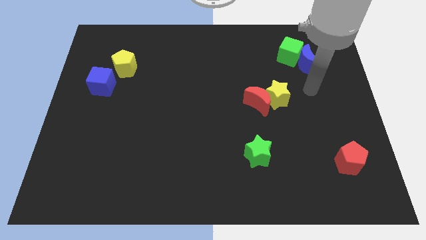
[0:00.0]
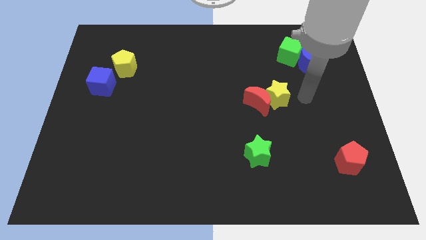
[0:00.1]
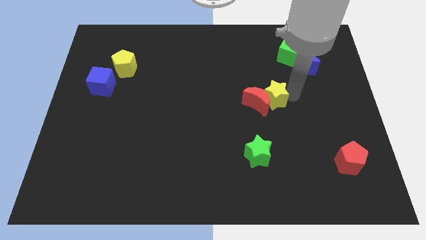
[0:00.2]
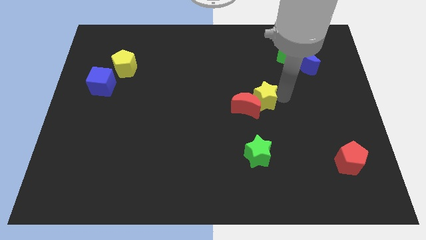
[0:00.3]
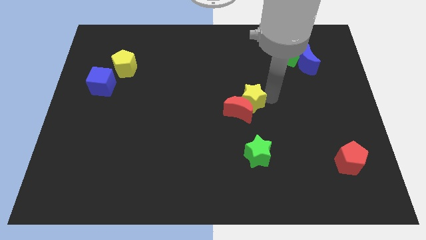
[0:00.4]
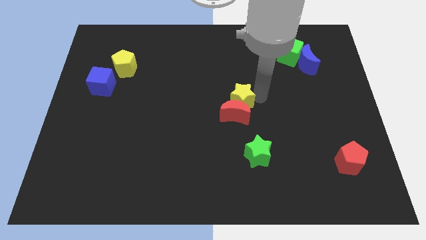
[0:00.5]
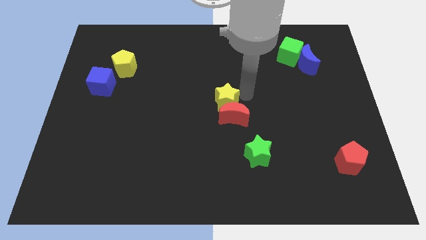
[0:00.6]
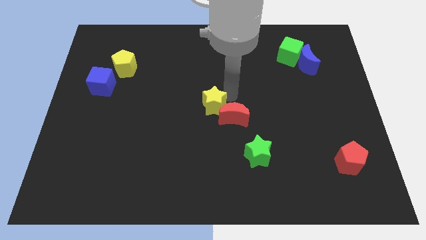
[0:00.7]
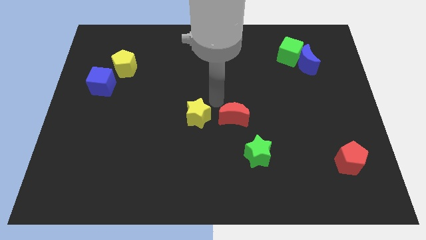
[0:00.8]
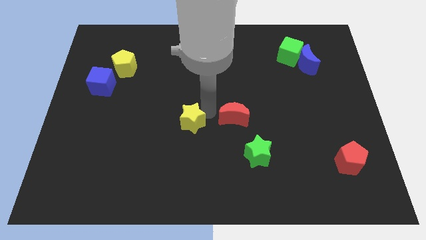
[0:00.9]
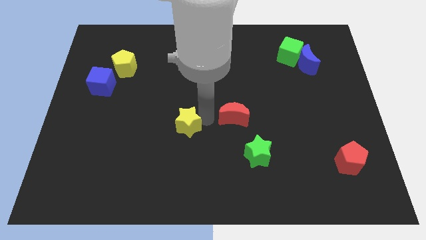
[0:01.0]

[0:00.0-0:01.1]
separate the red moon from the yellow star

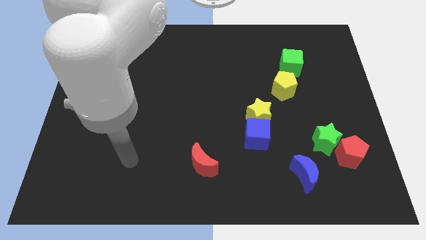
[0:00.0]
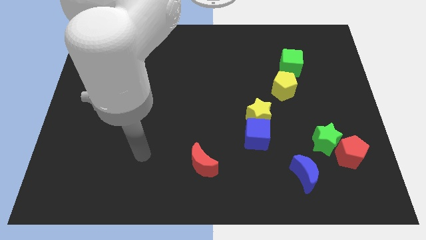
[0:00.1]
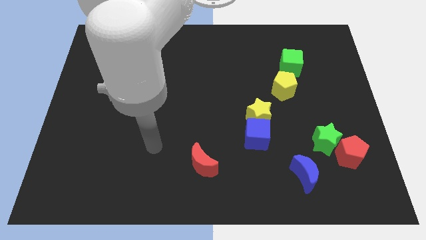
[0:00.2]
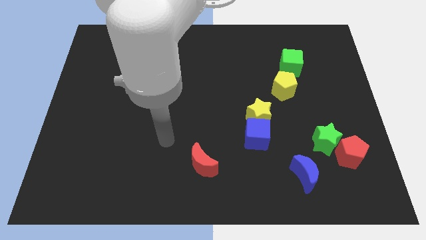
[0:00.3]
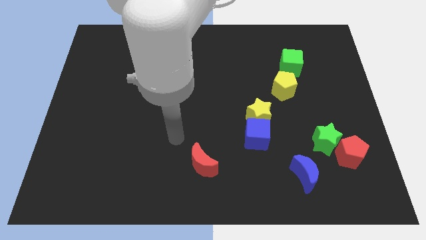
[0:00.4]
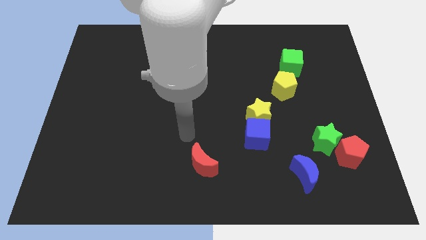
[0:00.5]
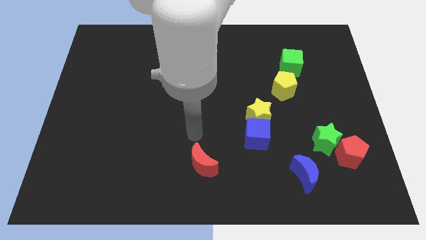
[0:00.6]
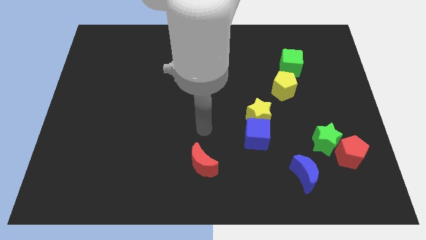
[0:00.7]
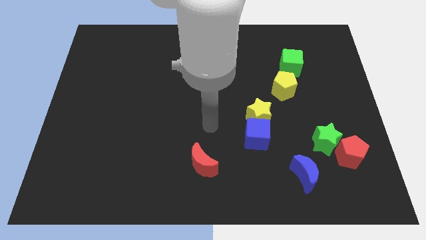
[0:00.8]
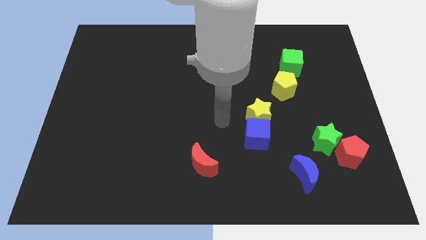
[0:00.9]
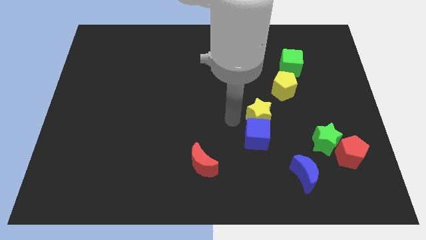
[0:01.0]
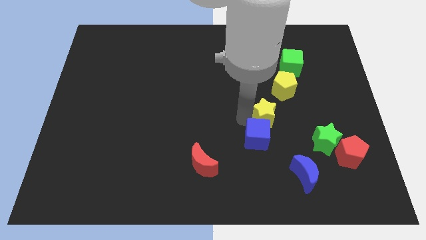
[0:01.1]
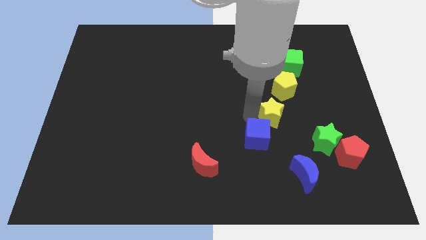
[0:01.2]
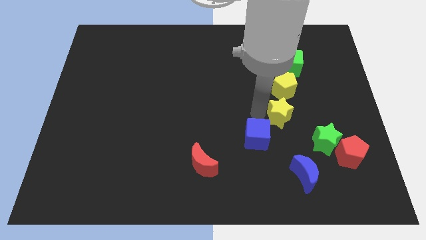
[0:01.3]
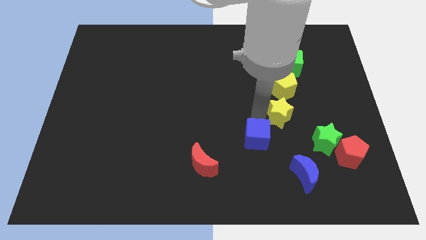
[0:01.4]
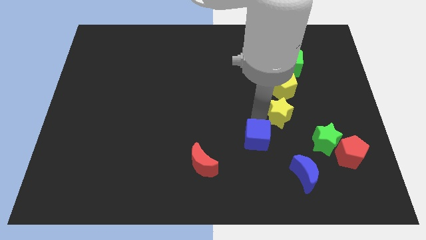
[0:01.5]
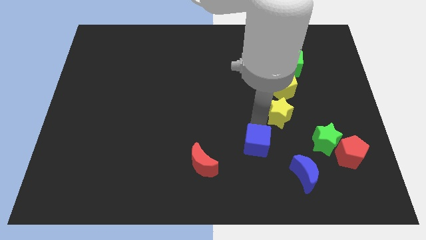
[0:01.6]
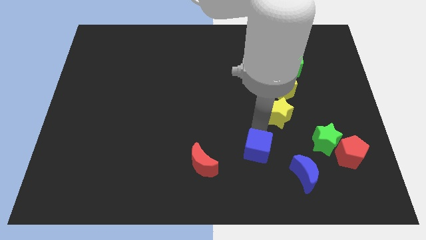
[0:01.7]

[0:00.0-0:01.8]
pull the blue cube apart from the yellow star

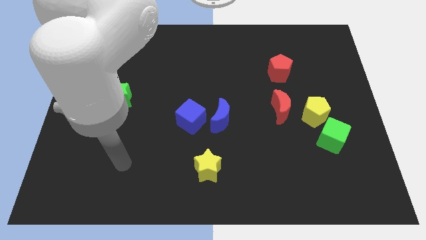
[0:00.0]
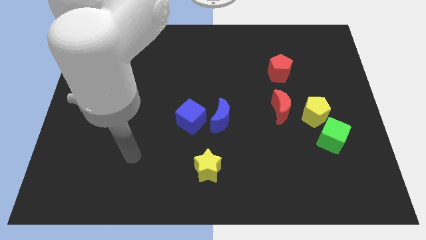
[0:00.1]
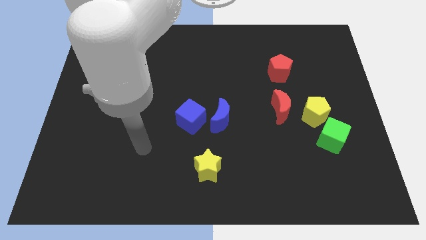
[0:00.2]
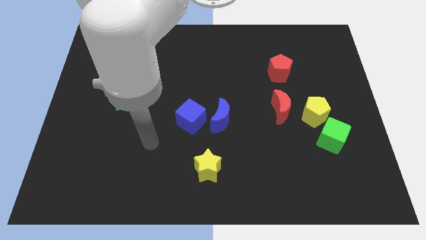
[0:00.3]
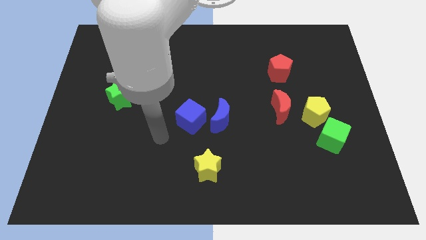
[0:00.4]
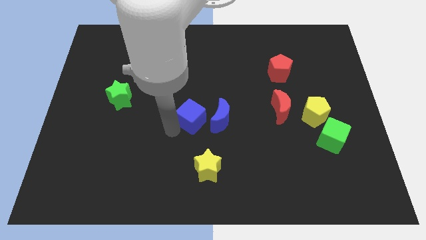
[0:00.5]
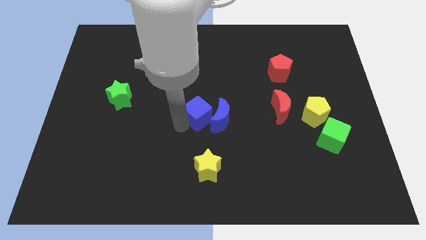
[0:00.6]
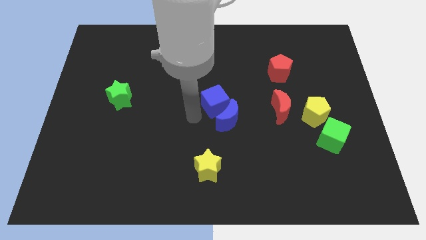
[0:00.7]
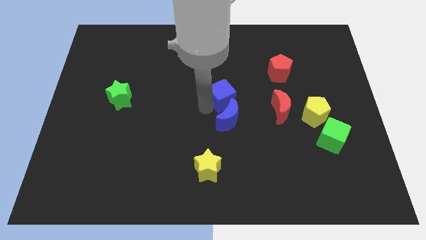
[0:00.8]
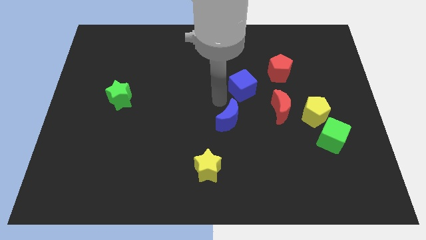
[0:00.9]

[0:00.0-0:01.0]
pull the blue moon apart from the blue cube

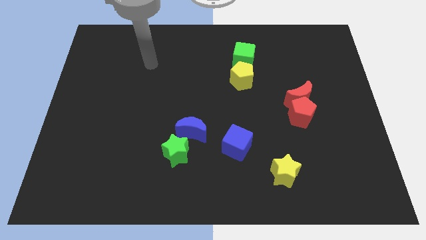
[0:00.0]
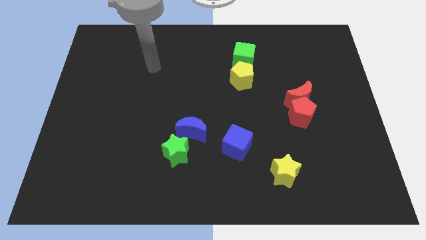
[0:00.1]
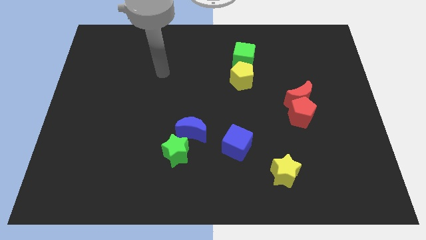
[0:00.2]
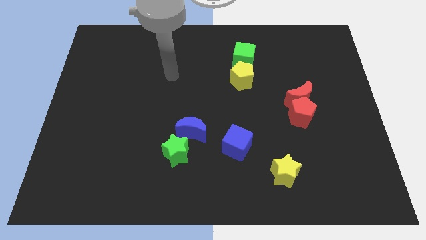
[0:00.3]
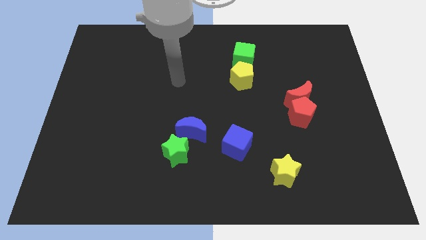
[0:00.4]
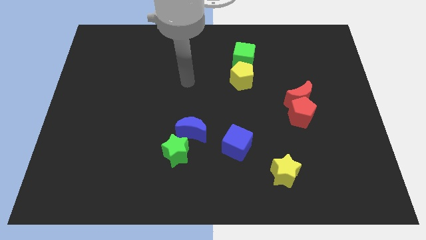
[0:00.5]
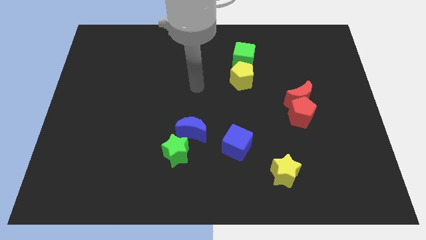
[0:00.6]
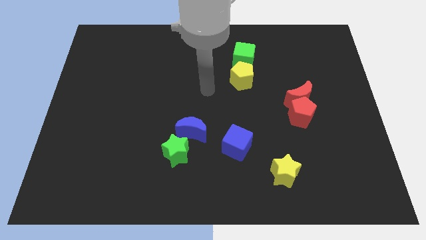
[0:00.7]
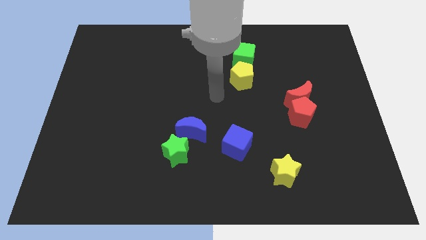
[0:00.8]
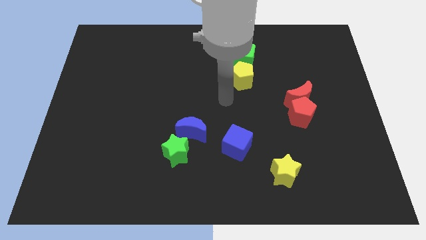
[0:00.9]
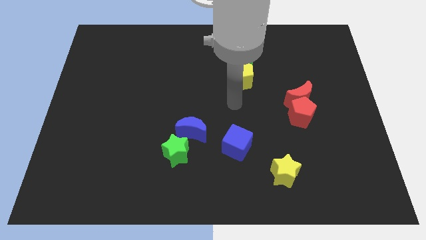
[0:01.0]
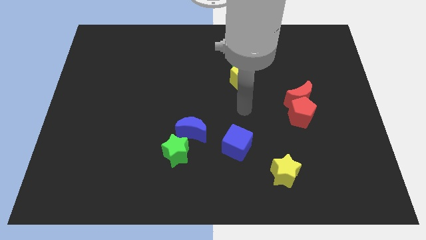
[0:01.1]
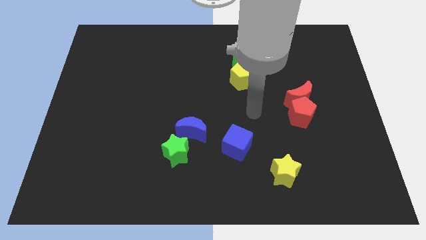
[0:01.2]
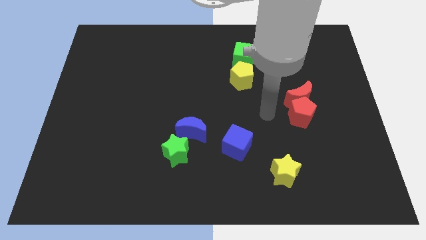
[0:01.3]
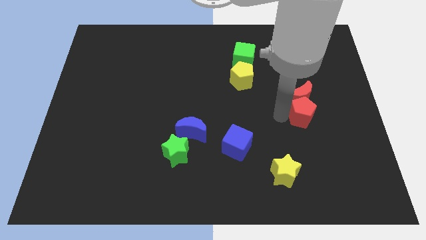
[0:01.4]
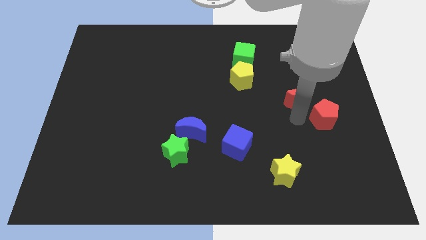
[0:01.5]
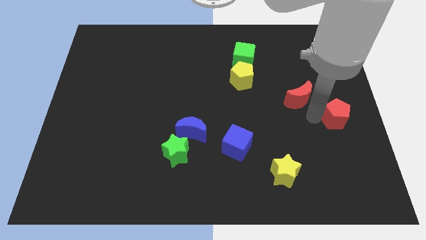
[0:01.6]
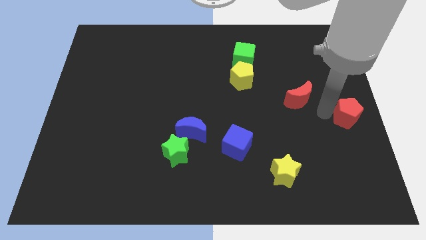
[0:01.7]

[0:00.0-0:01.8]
pull the red moon apart from the red pentagon

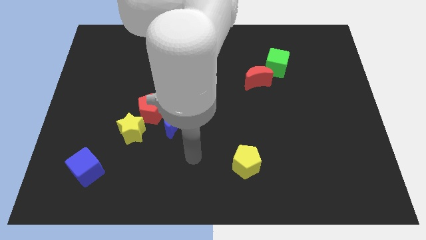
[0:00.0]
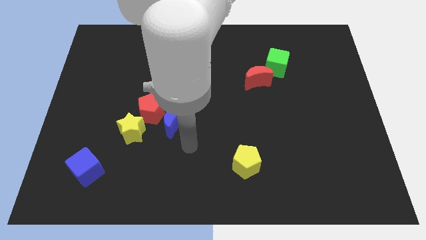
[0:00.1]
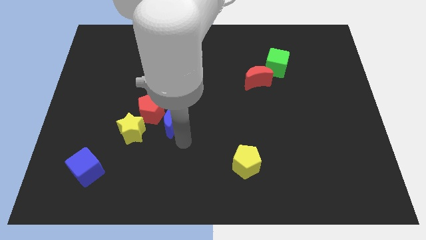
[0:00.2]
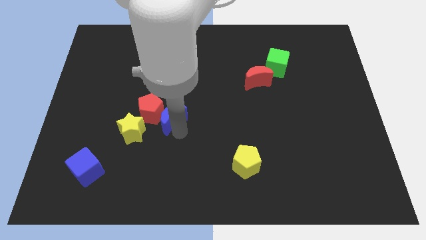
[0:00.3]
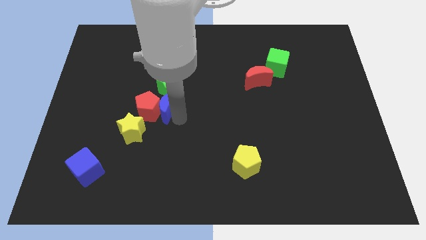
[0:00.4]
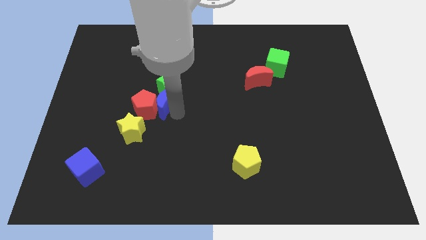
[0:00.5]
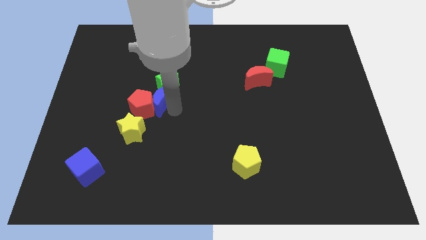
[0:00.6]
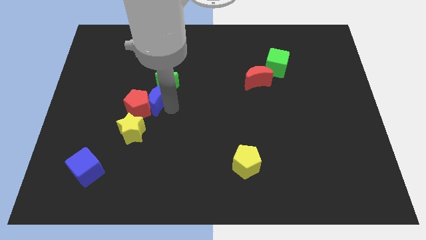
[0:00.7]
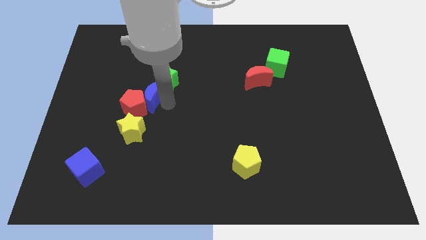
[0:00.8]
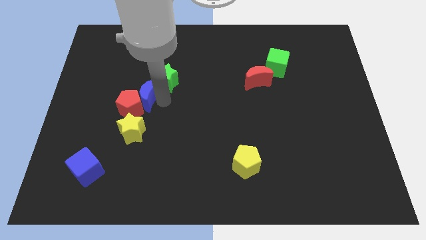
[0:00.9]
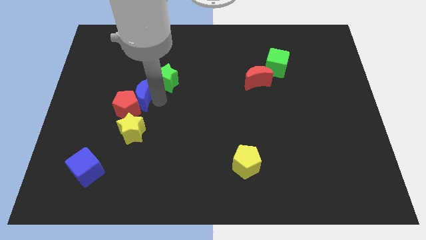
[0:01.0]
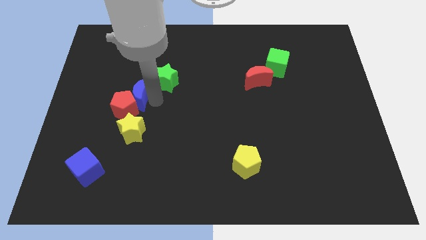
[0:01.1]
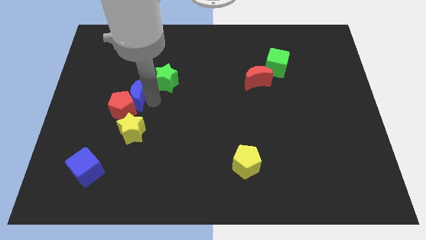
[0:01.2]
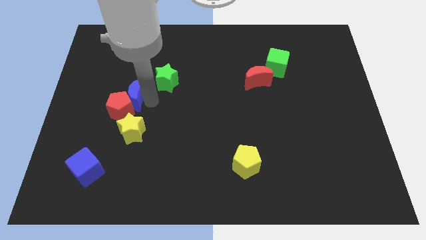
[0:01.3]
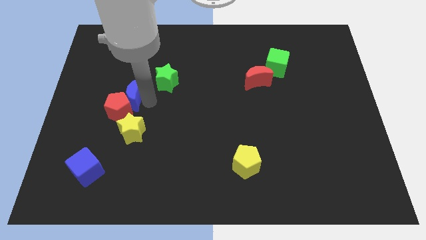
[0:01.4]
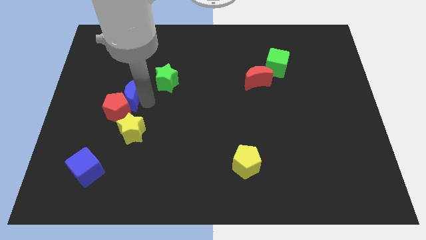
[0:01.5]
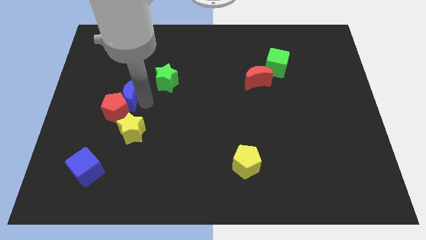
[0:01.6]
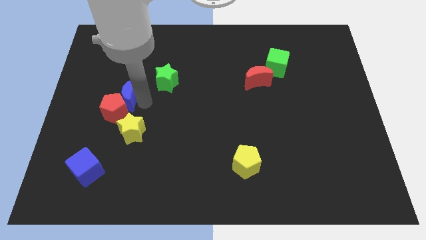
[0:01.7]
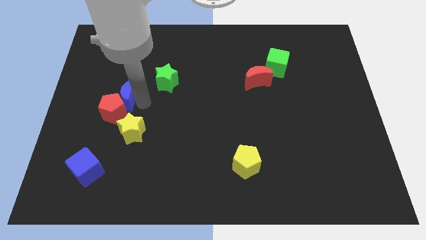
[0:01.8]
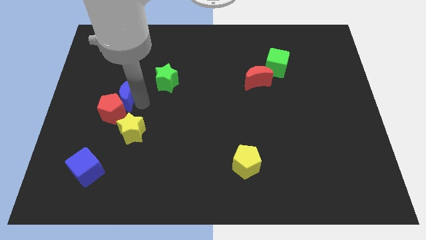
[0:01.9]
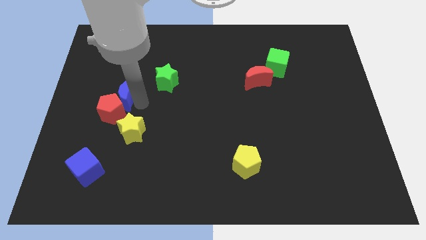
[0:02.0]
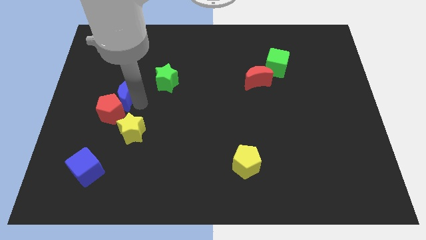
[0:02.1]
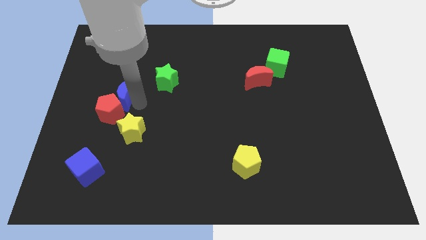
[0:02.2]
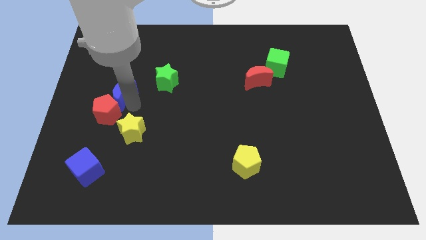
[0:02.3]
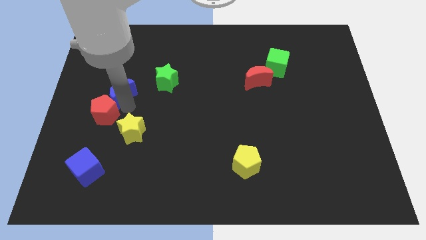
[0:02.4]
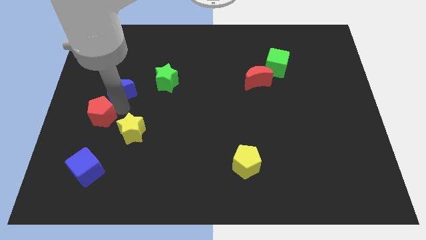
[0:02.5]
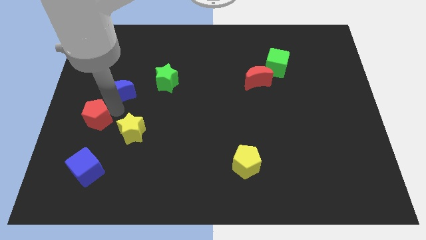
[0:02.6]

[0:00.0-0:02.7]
separate the red pentagon from the blue moon, yellow star, and green star

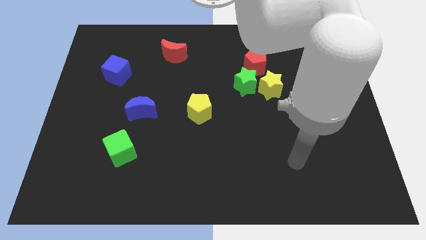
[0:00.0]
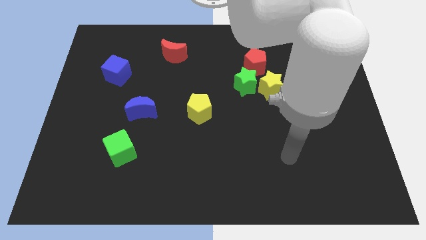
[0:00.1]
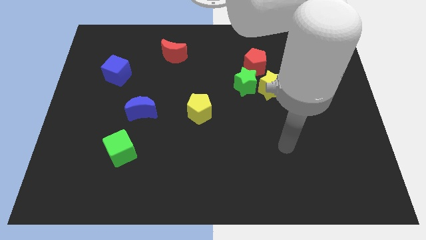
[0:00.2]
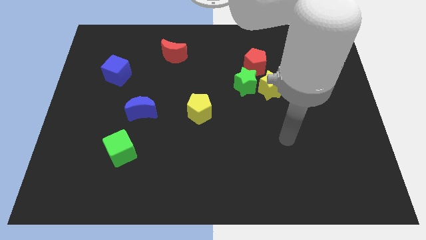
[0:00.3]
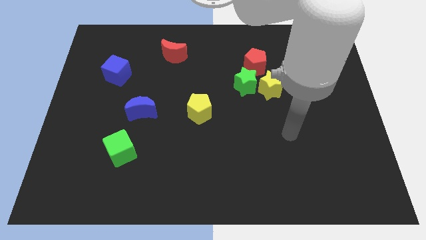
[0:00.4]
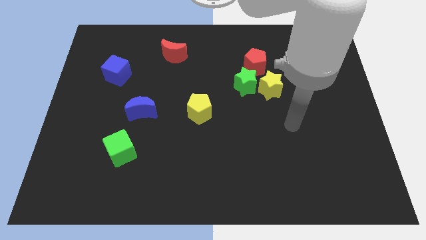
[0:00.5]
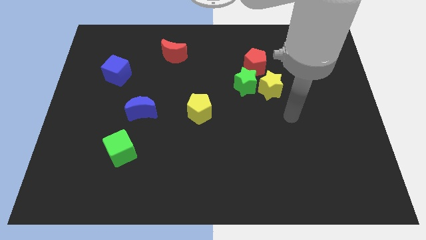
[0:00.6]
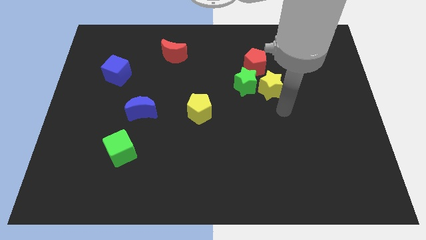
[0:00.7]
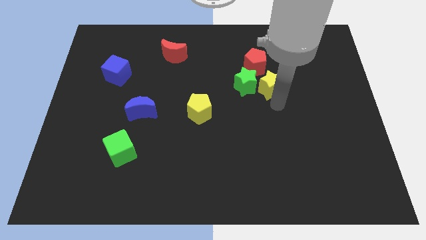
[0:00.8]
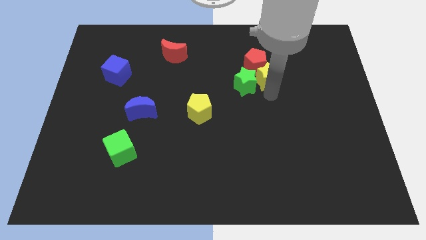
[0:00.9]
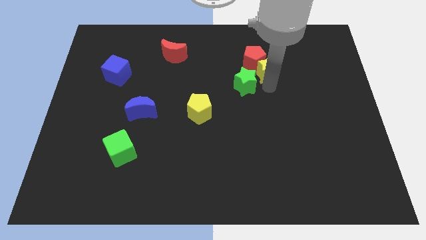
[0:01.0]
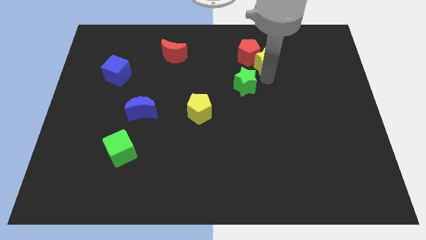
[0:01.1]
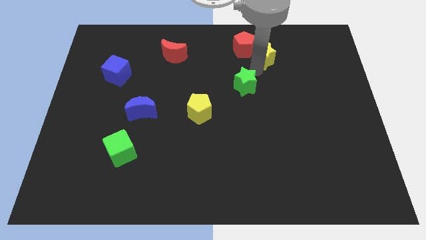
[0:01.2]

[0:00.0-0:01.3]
move the green star away from the yellow star and red pentagon
